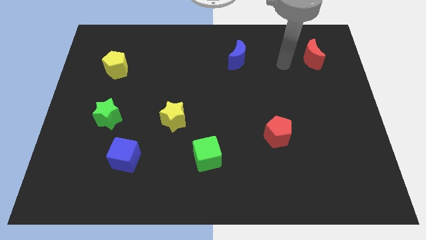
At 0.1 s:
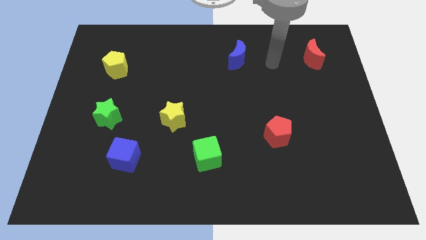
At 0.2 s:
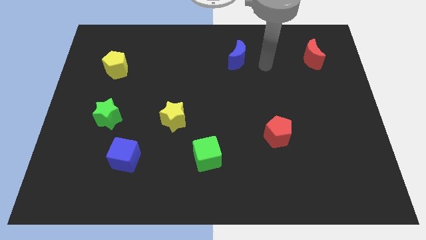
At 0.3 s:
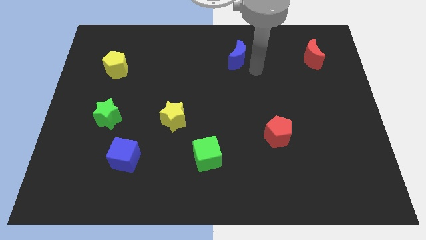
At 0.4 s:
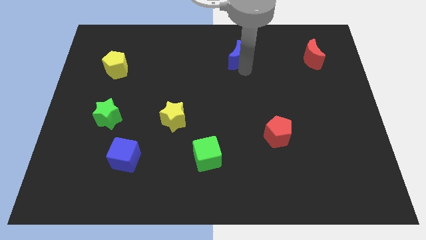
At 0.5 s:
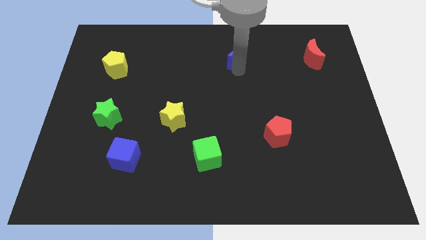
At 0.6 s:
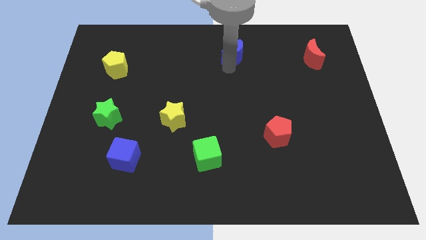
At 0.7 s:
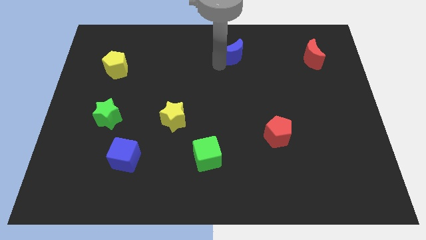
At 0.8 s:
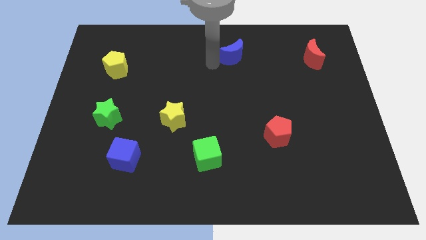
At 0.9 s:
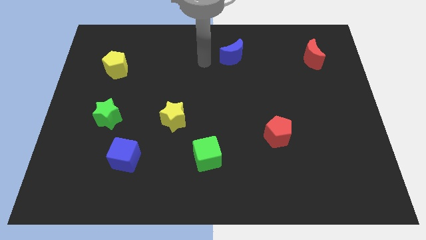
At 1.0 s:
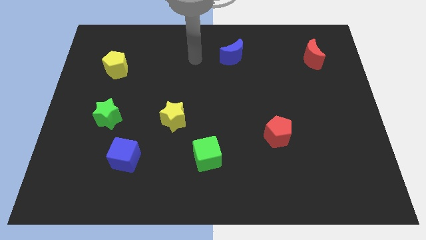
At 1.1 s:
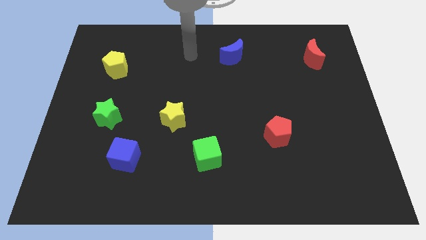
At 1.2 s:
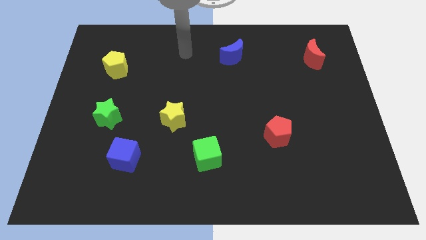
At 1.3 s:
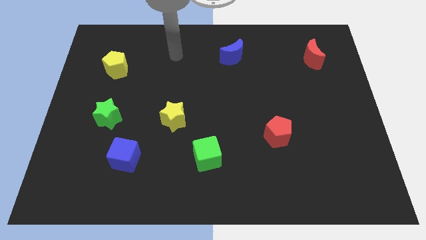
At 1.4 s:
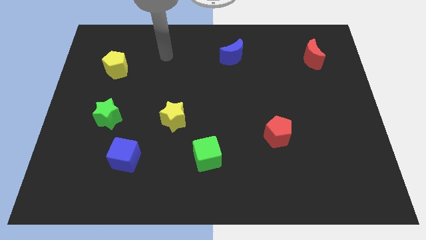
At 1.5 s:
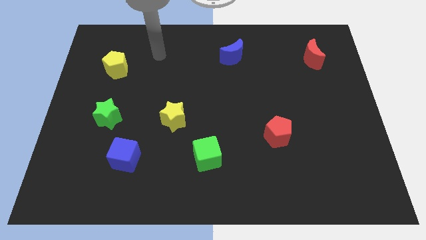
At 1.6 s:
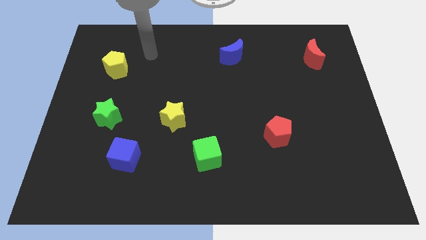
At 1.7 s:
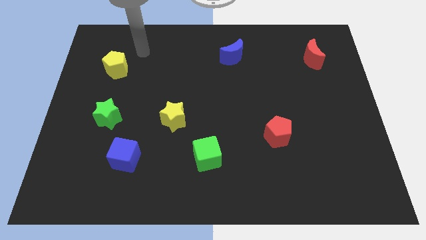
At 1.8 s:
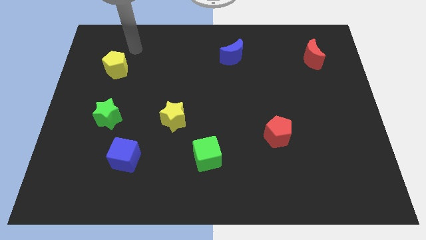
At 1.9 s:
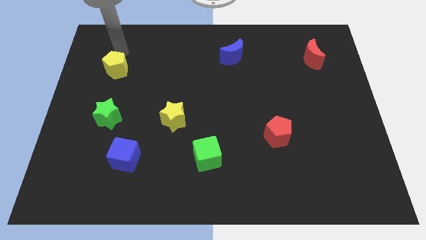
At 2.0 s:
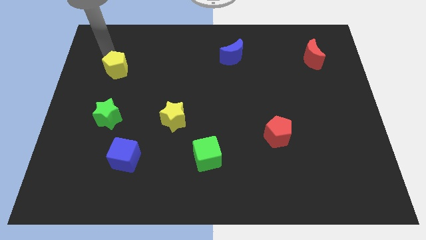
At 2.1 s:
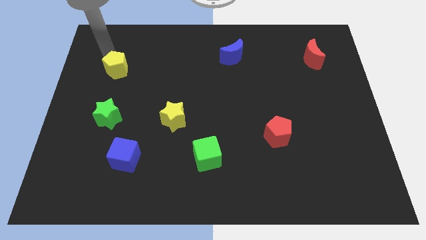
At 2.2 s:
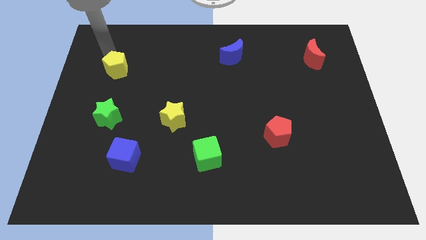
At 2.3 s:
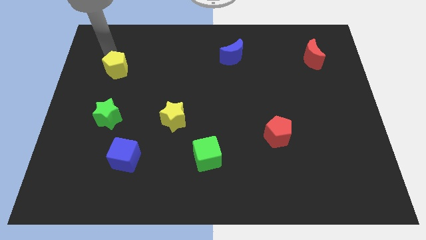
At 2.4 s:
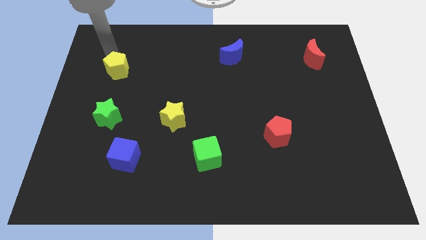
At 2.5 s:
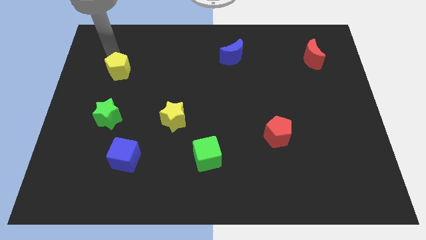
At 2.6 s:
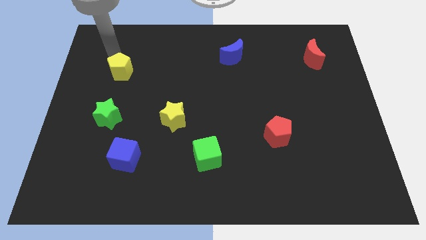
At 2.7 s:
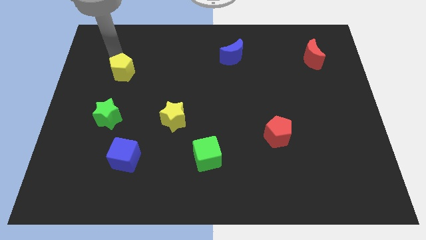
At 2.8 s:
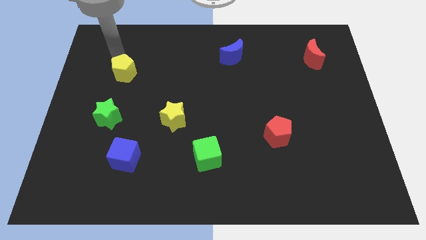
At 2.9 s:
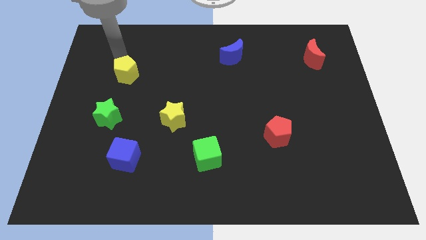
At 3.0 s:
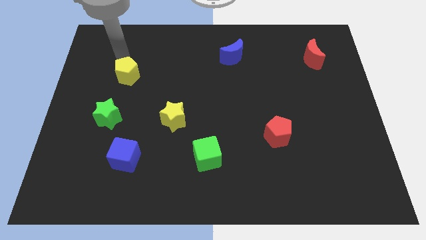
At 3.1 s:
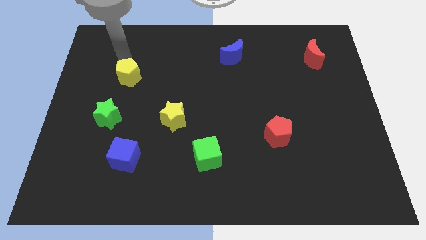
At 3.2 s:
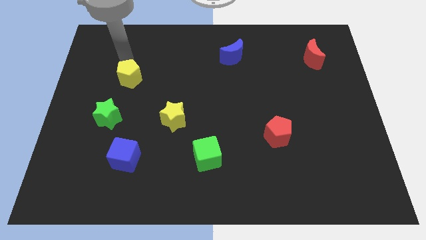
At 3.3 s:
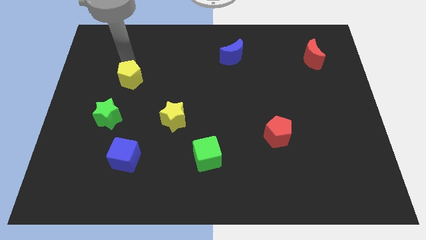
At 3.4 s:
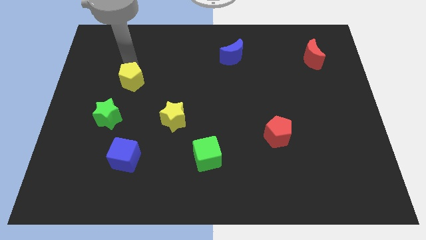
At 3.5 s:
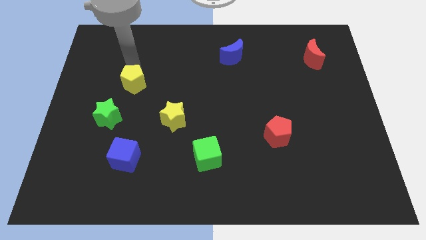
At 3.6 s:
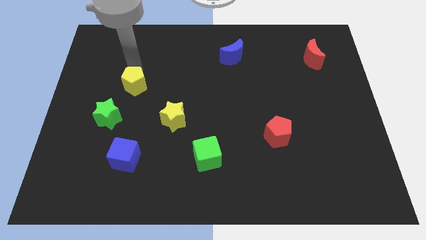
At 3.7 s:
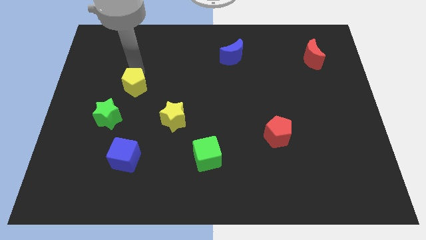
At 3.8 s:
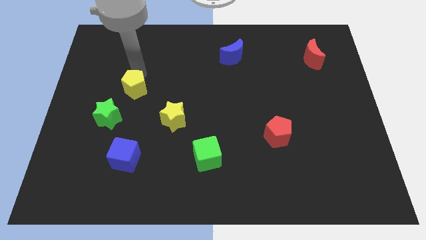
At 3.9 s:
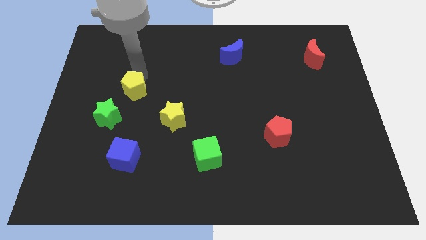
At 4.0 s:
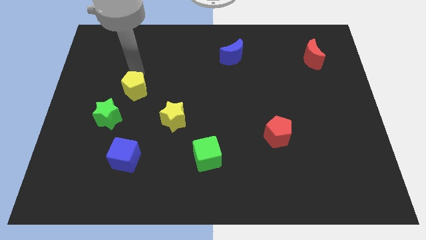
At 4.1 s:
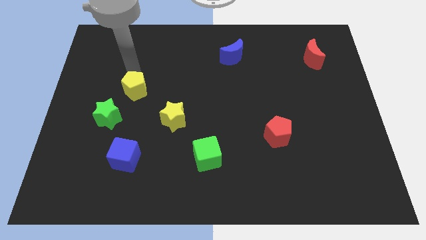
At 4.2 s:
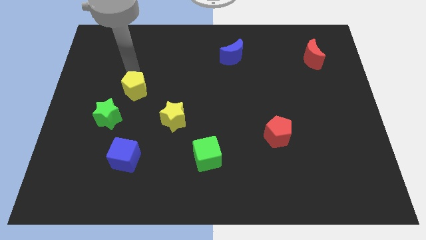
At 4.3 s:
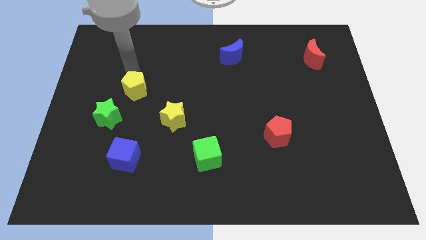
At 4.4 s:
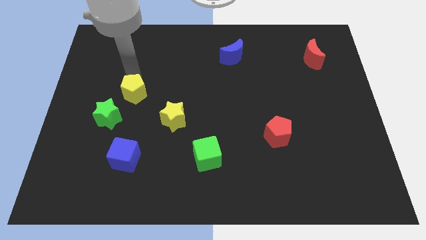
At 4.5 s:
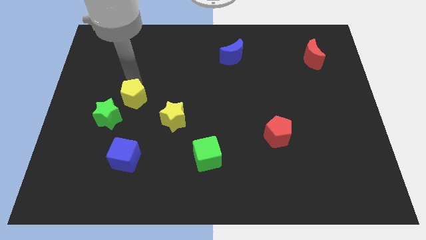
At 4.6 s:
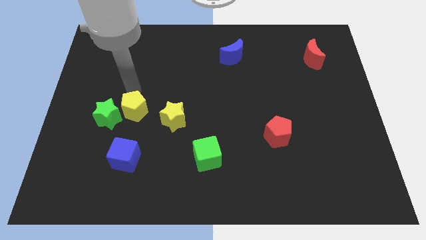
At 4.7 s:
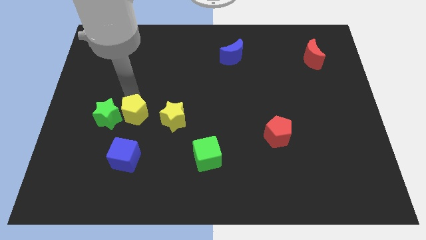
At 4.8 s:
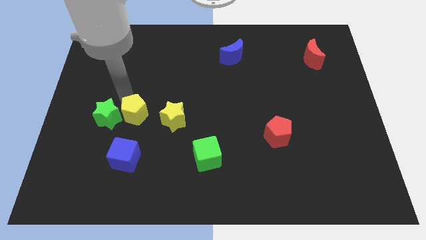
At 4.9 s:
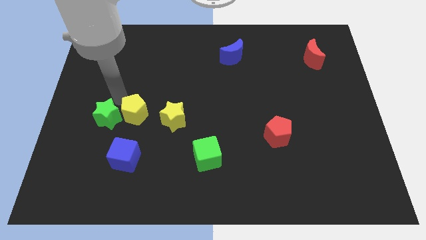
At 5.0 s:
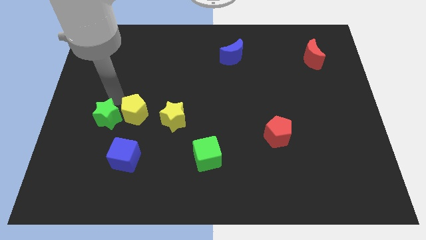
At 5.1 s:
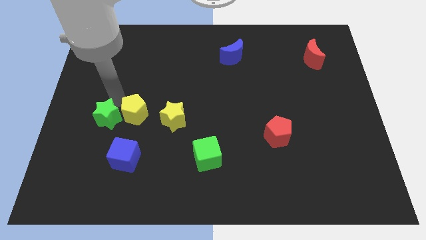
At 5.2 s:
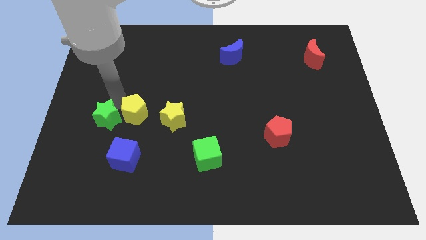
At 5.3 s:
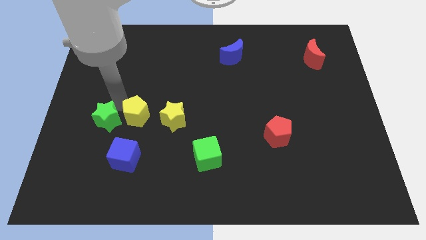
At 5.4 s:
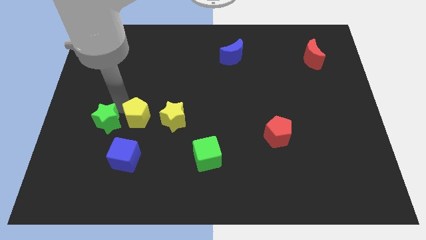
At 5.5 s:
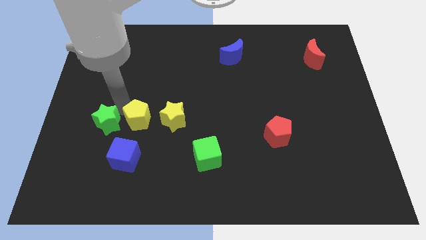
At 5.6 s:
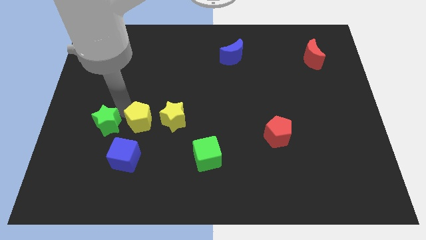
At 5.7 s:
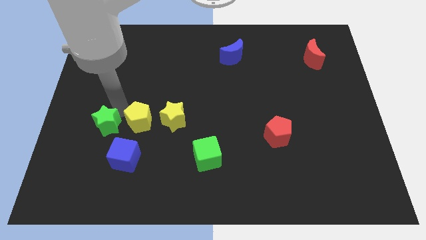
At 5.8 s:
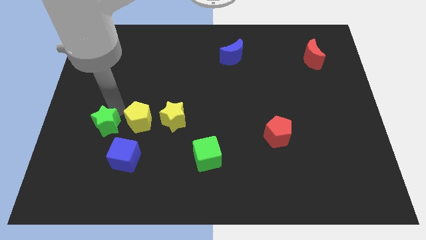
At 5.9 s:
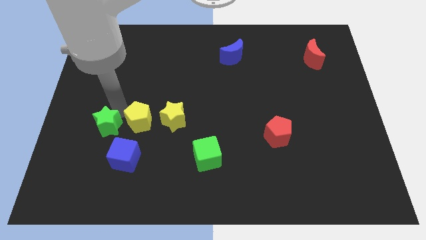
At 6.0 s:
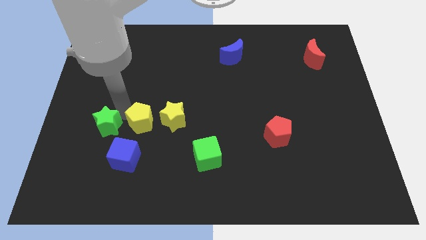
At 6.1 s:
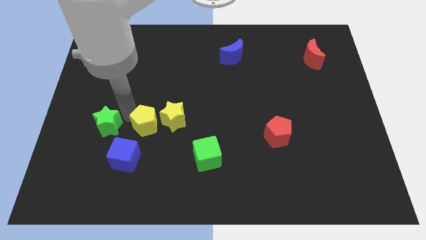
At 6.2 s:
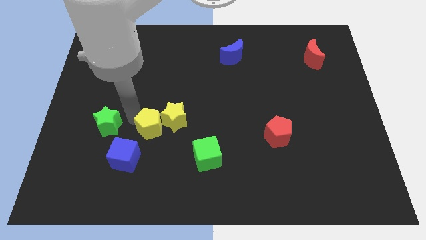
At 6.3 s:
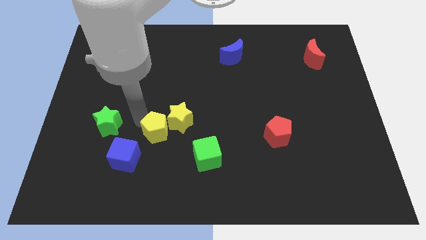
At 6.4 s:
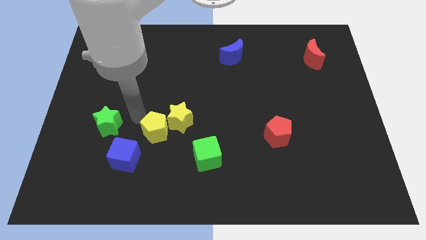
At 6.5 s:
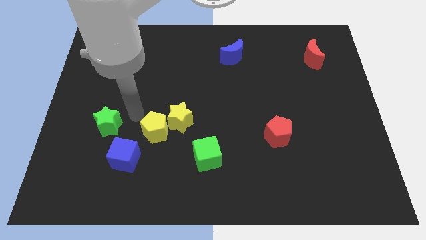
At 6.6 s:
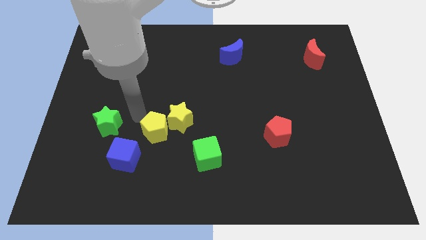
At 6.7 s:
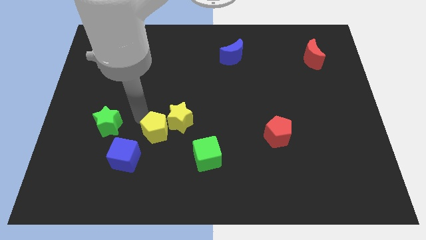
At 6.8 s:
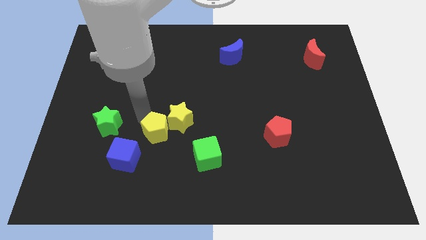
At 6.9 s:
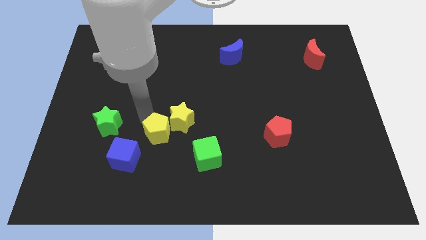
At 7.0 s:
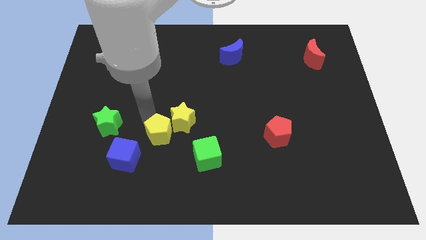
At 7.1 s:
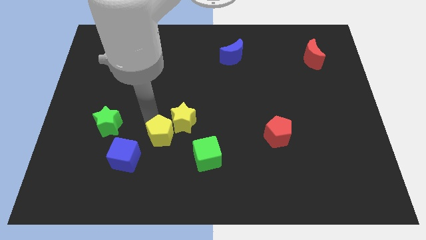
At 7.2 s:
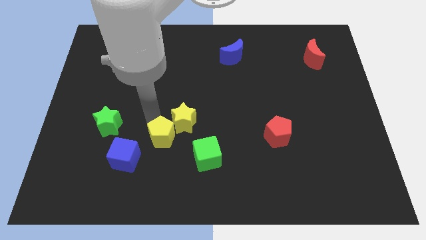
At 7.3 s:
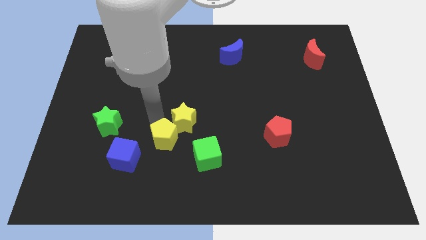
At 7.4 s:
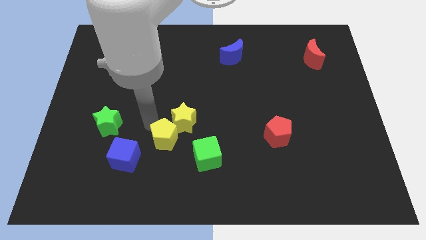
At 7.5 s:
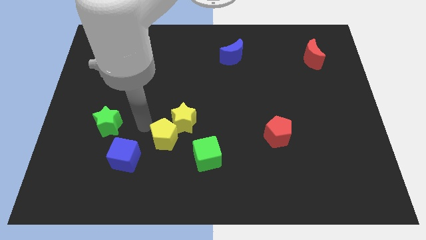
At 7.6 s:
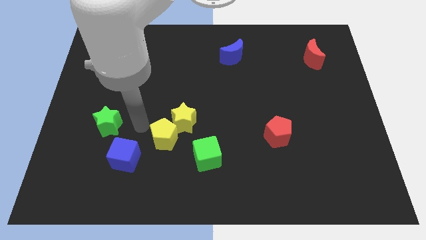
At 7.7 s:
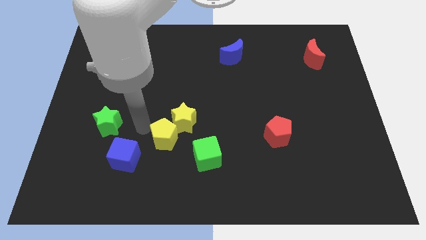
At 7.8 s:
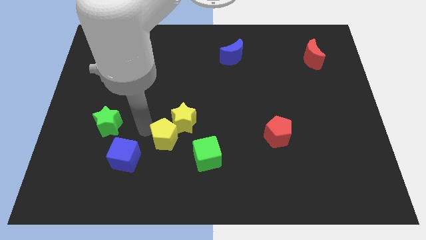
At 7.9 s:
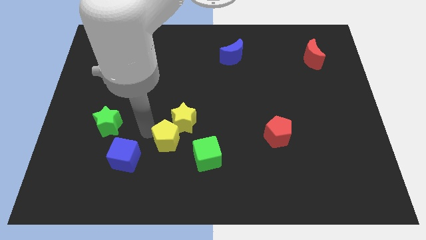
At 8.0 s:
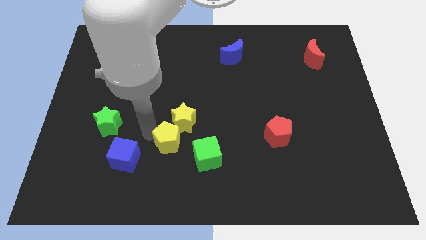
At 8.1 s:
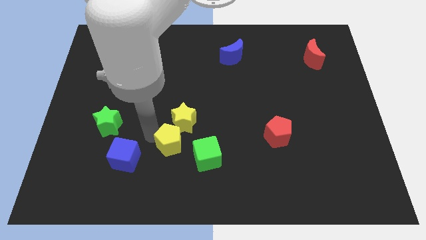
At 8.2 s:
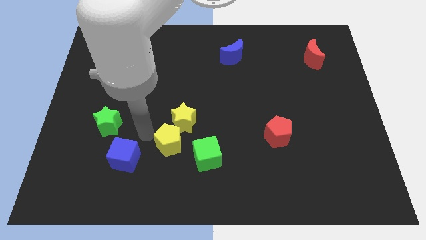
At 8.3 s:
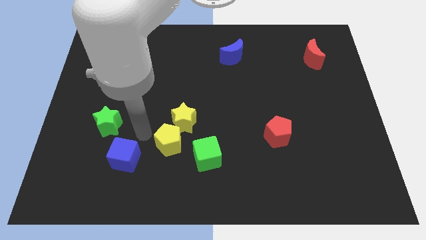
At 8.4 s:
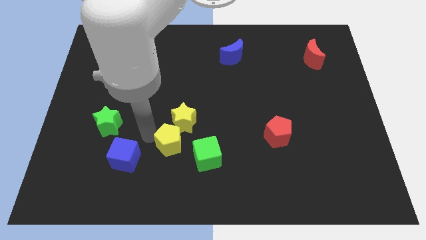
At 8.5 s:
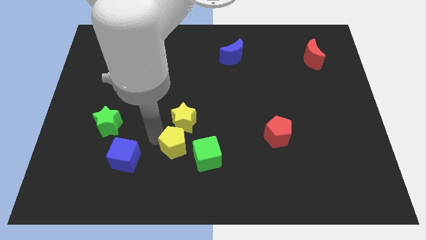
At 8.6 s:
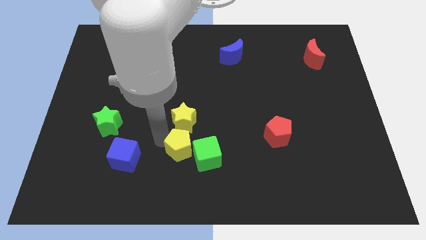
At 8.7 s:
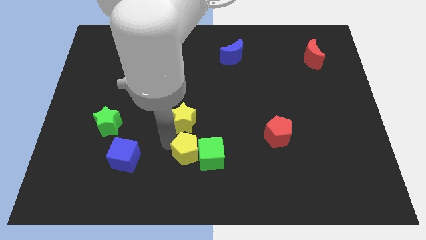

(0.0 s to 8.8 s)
move the yellow pentagon towards the green cube
